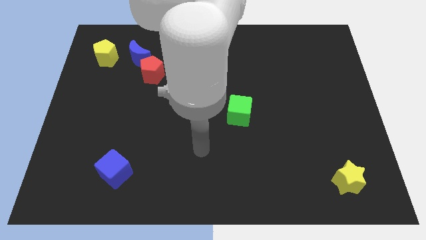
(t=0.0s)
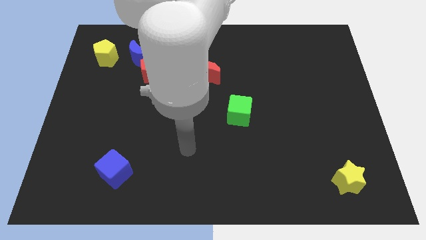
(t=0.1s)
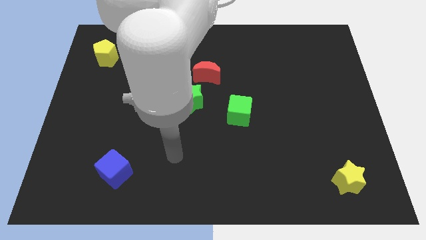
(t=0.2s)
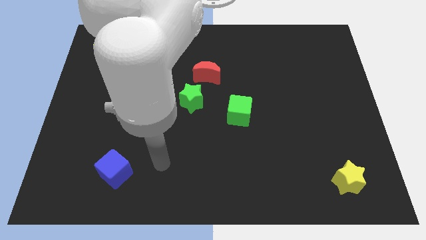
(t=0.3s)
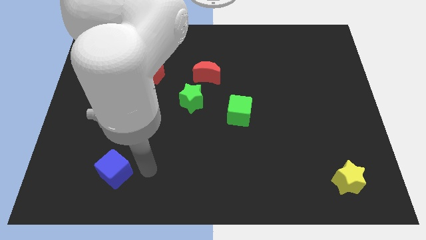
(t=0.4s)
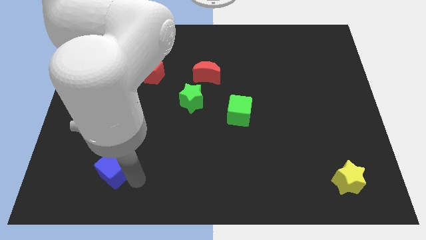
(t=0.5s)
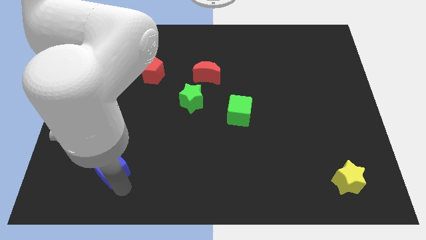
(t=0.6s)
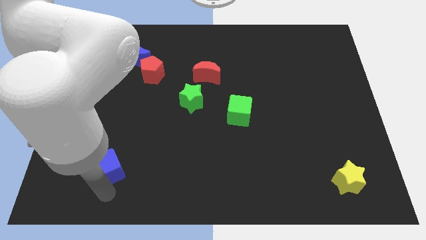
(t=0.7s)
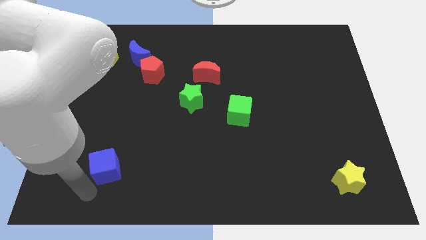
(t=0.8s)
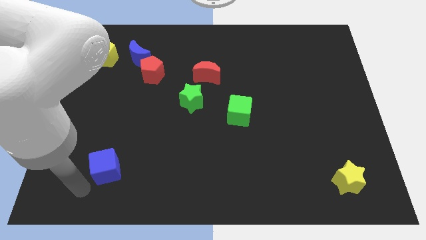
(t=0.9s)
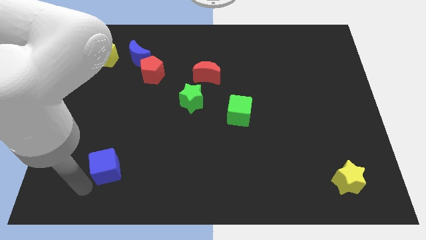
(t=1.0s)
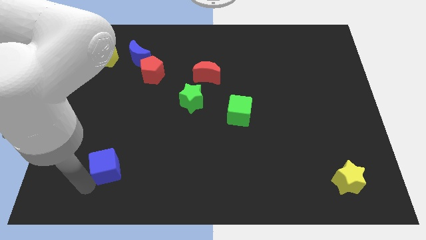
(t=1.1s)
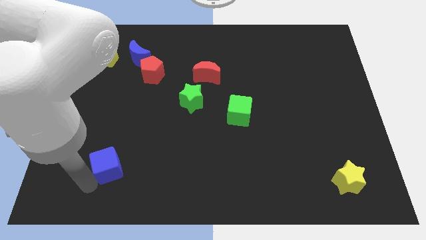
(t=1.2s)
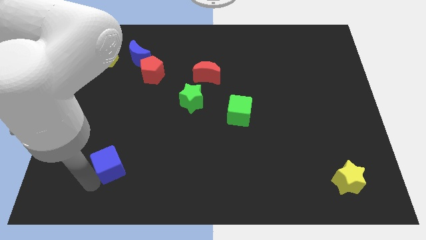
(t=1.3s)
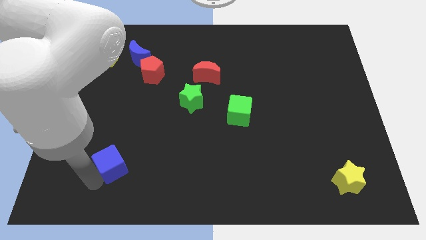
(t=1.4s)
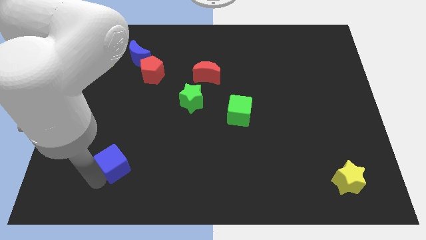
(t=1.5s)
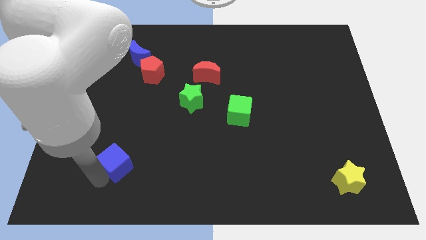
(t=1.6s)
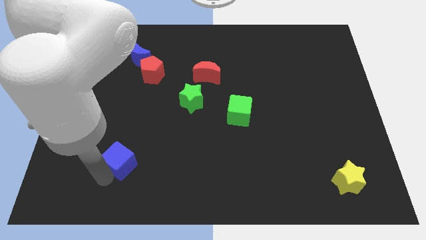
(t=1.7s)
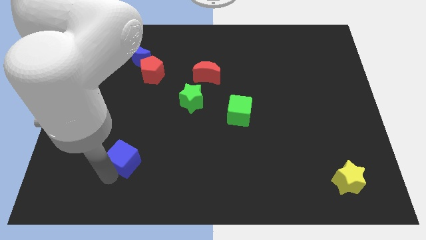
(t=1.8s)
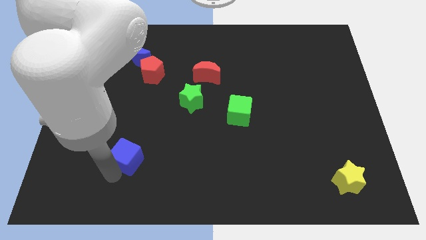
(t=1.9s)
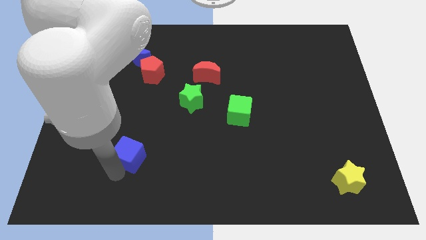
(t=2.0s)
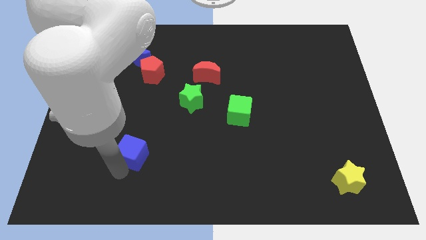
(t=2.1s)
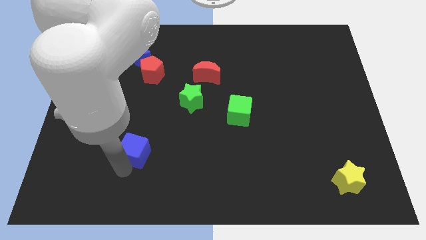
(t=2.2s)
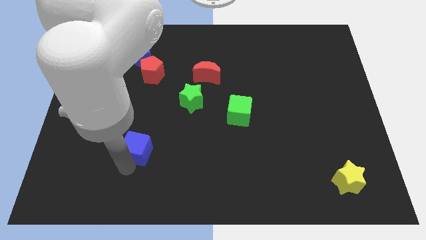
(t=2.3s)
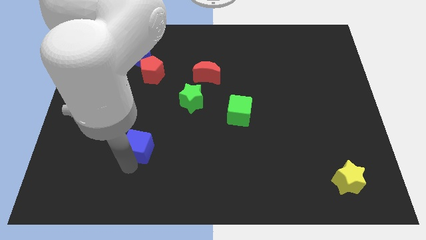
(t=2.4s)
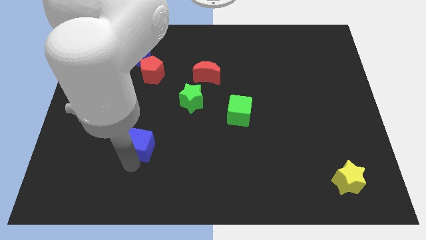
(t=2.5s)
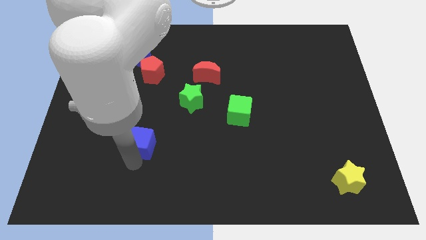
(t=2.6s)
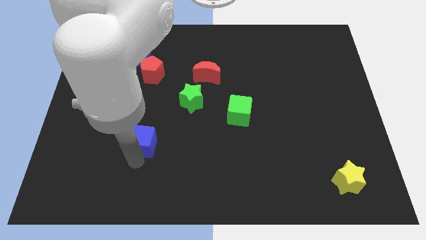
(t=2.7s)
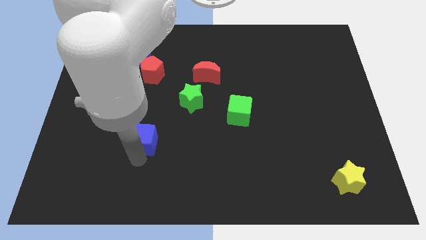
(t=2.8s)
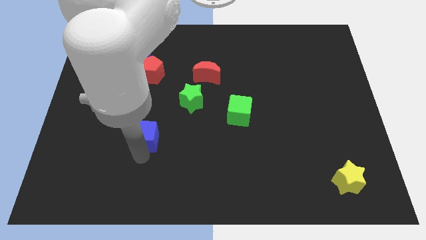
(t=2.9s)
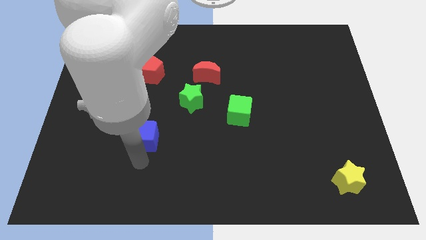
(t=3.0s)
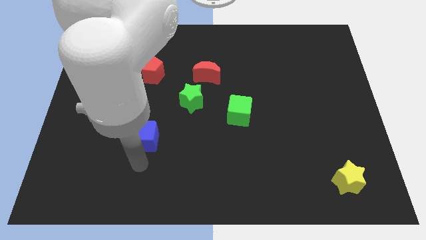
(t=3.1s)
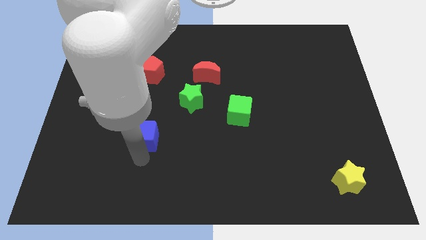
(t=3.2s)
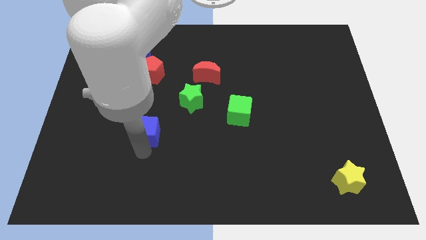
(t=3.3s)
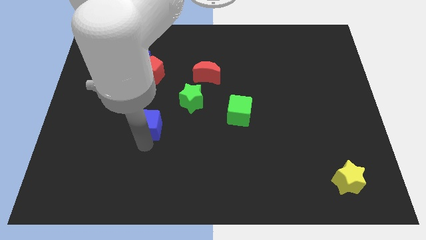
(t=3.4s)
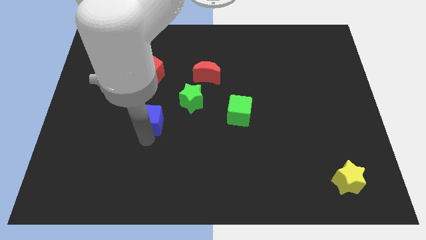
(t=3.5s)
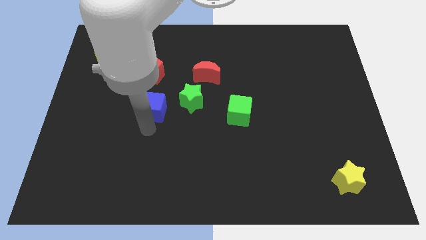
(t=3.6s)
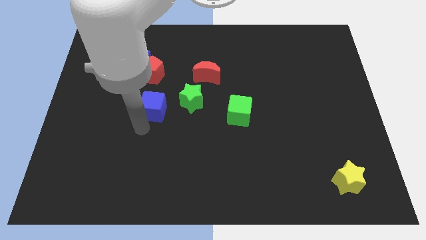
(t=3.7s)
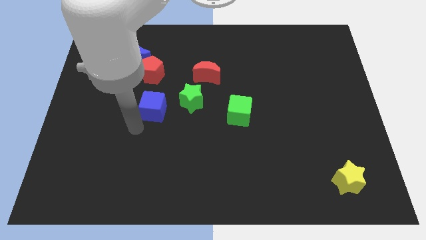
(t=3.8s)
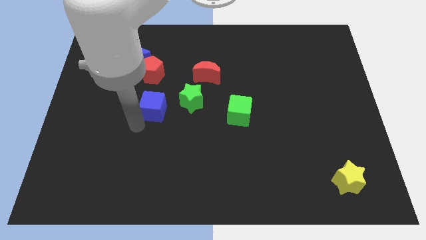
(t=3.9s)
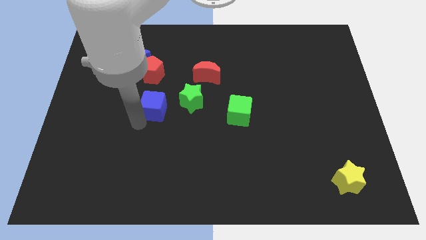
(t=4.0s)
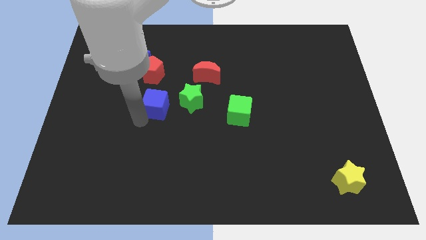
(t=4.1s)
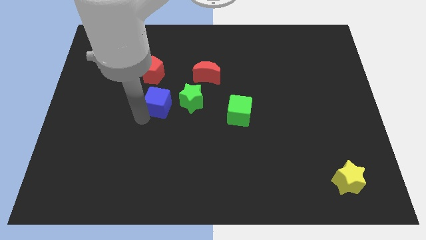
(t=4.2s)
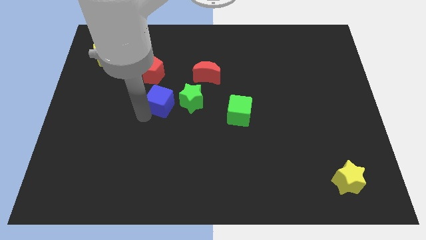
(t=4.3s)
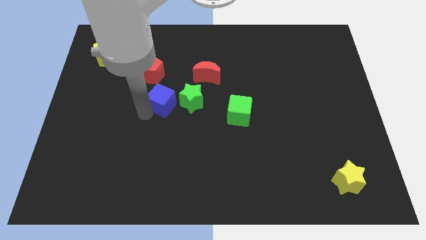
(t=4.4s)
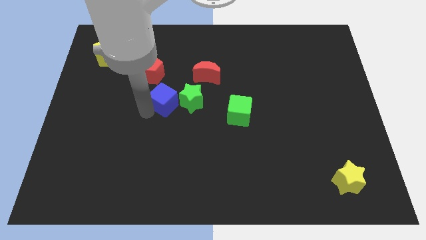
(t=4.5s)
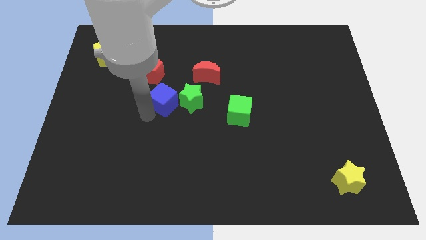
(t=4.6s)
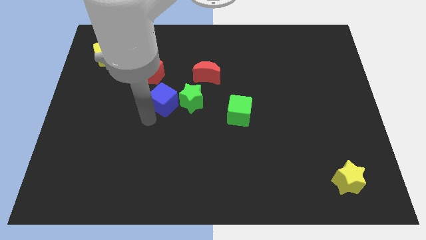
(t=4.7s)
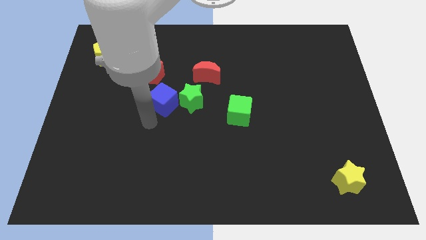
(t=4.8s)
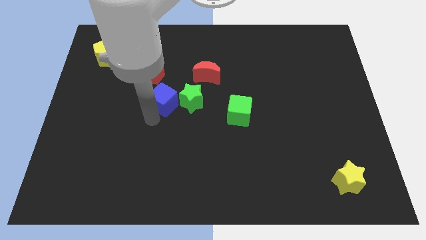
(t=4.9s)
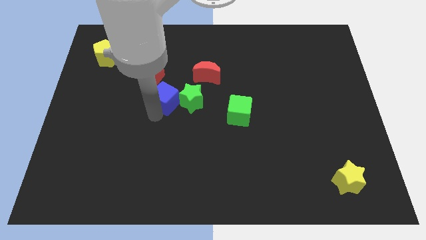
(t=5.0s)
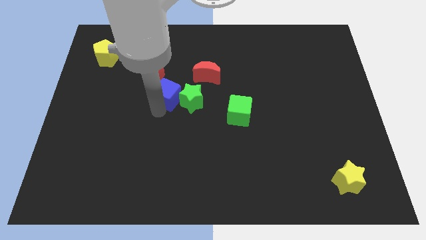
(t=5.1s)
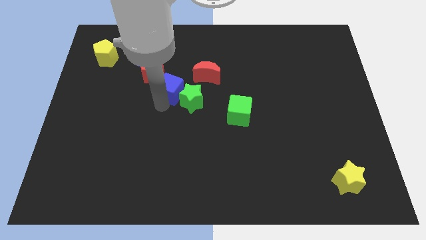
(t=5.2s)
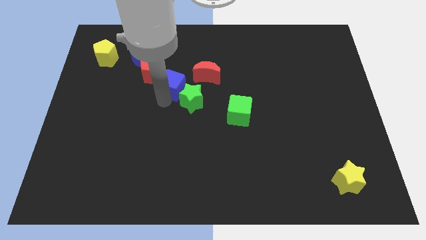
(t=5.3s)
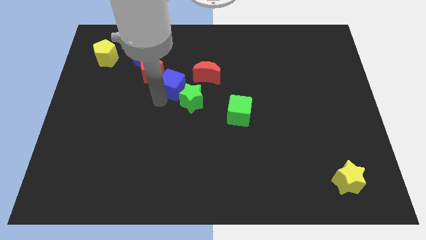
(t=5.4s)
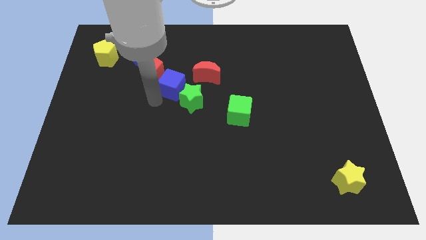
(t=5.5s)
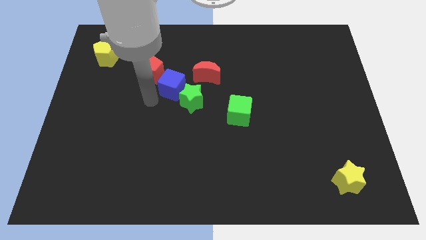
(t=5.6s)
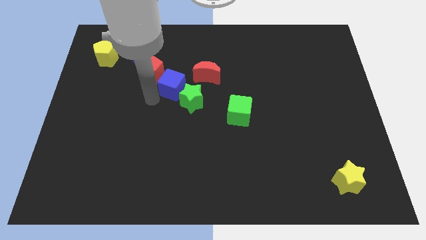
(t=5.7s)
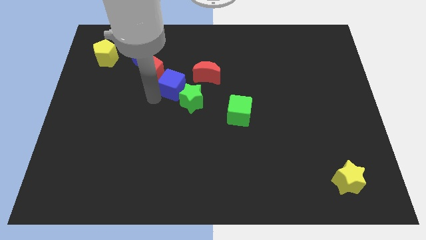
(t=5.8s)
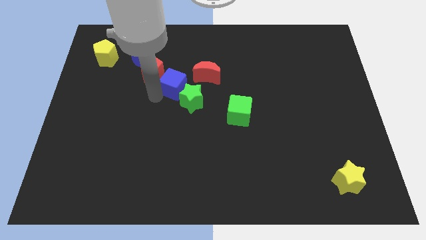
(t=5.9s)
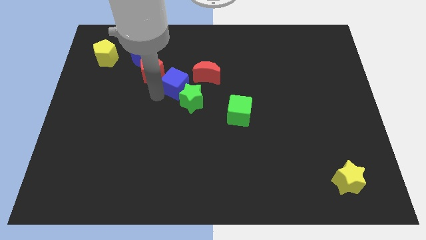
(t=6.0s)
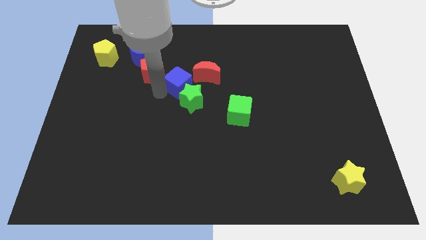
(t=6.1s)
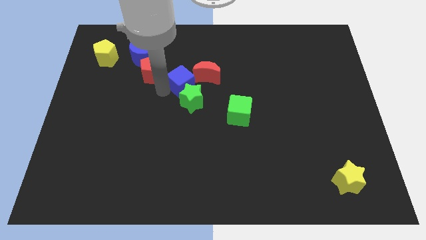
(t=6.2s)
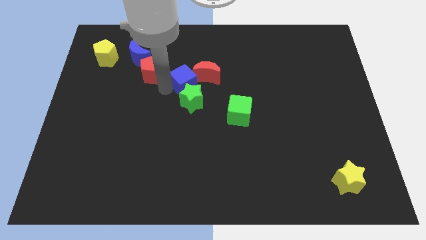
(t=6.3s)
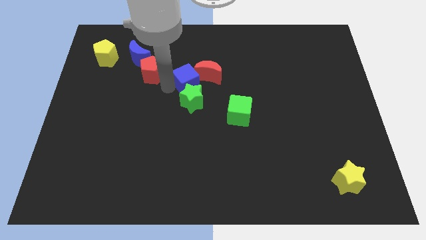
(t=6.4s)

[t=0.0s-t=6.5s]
push the blue cube next to the red moon

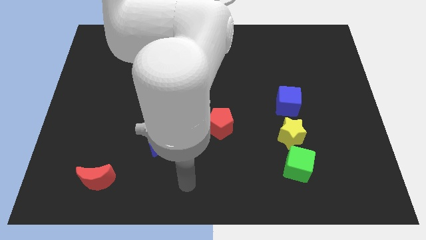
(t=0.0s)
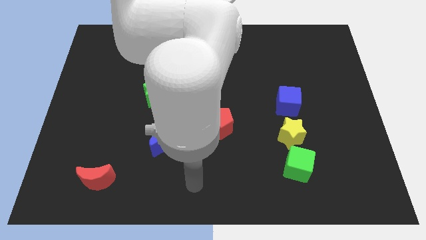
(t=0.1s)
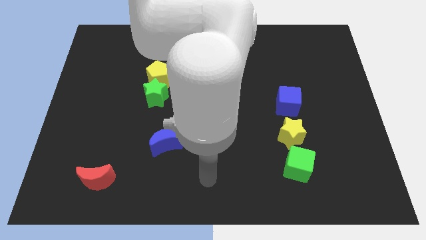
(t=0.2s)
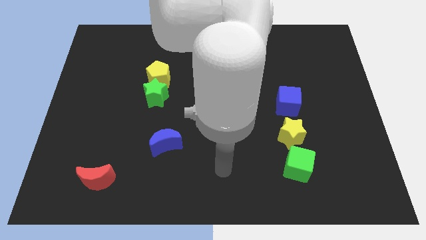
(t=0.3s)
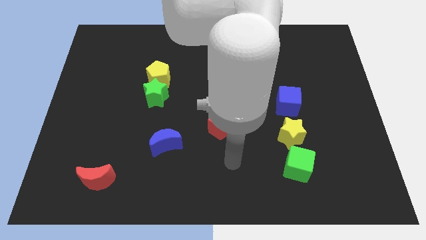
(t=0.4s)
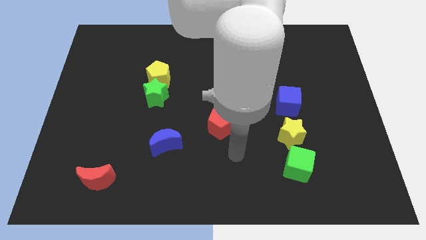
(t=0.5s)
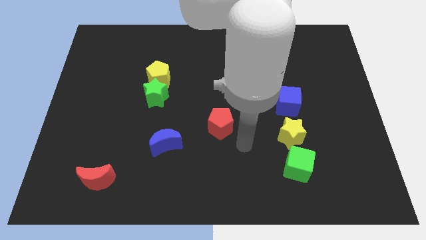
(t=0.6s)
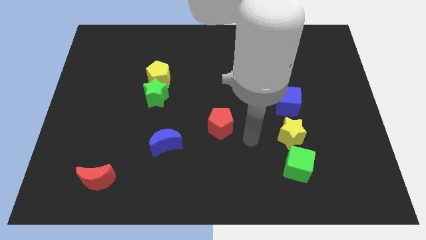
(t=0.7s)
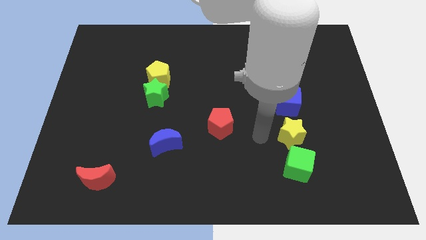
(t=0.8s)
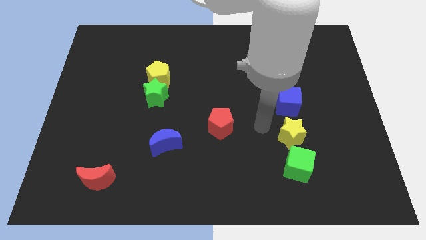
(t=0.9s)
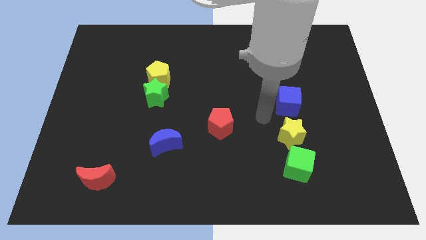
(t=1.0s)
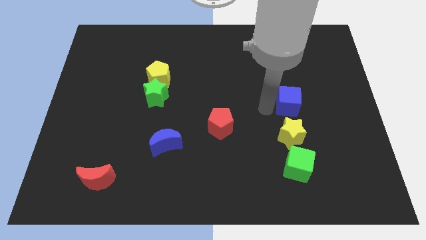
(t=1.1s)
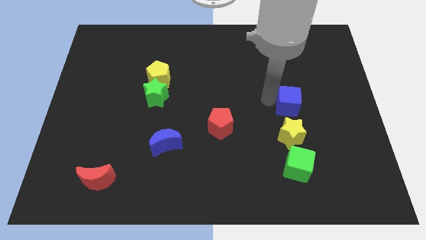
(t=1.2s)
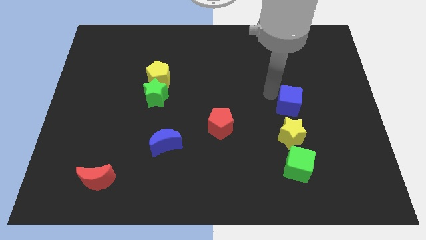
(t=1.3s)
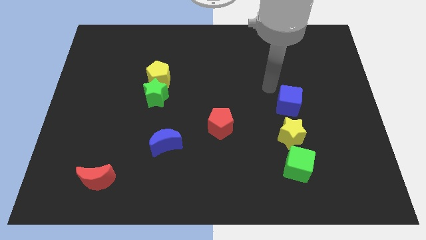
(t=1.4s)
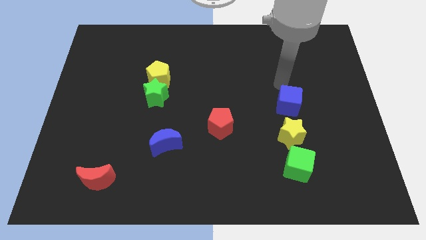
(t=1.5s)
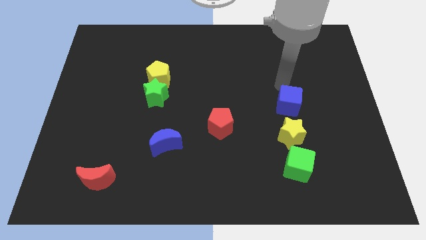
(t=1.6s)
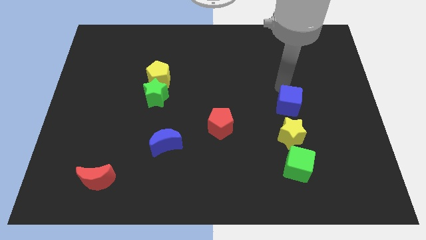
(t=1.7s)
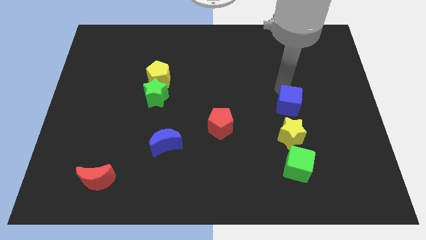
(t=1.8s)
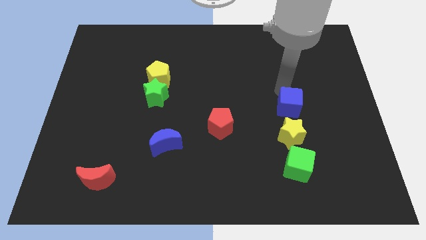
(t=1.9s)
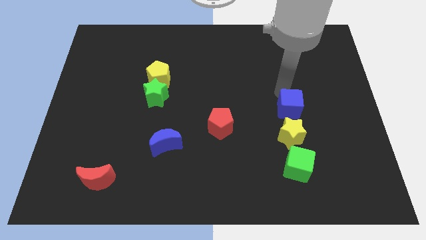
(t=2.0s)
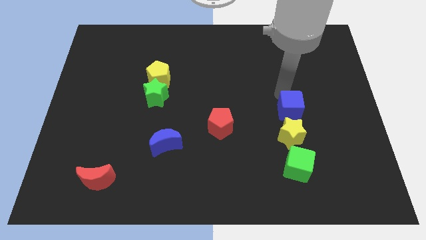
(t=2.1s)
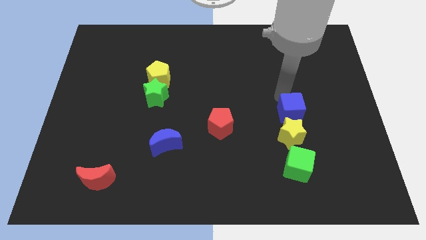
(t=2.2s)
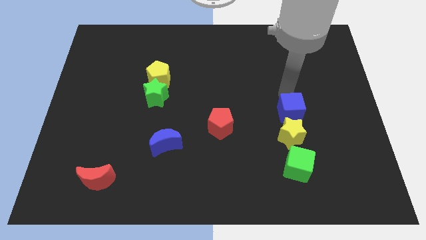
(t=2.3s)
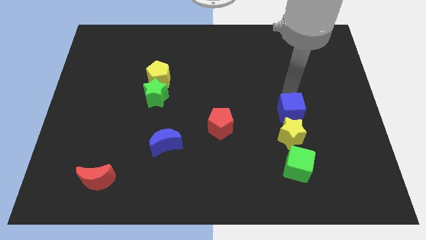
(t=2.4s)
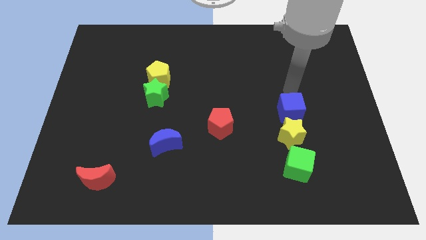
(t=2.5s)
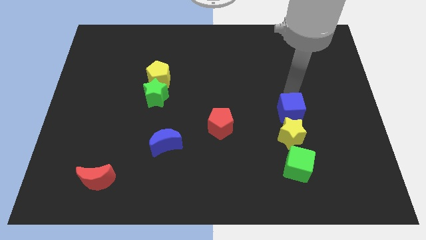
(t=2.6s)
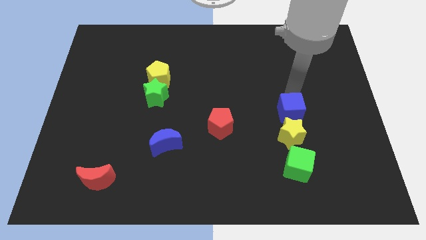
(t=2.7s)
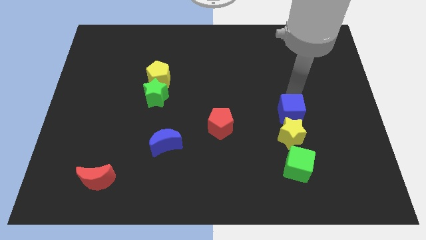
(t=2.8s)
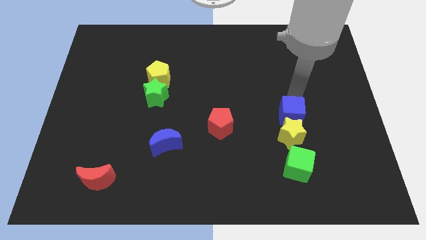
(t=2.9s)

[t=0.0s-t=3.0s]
slide the blue cube towards the yellow star
